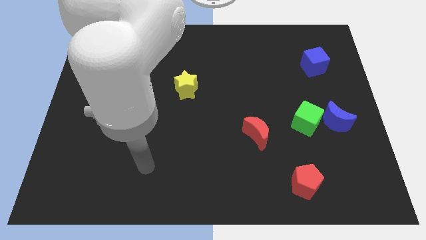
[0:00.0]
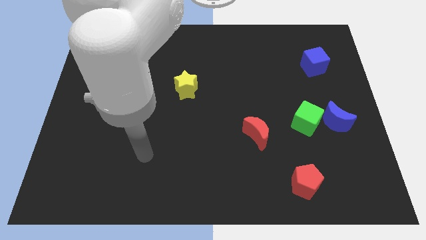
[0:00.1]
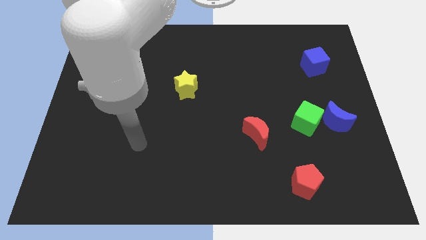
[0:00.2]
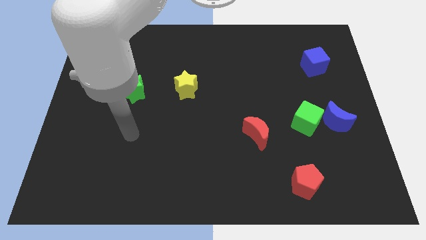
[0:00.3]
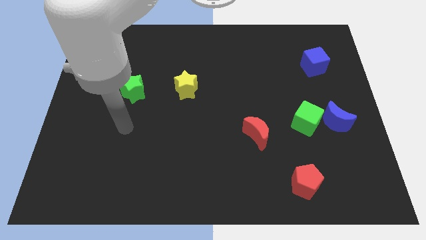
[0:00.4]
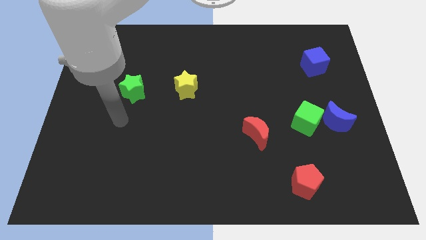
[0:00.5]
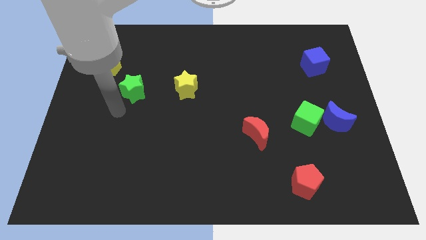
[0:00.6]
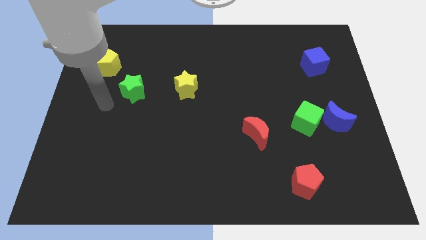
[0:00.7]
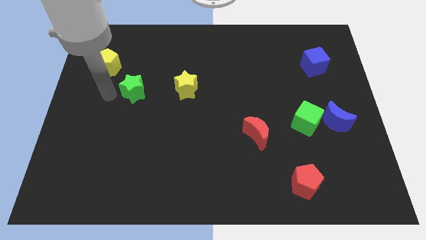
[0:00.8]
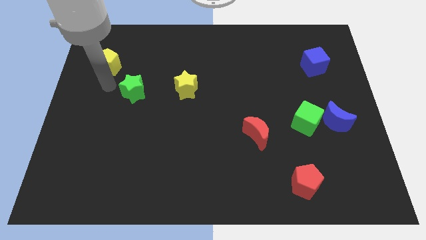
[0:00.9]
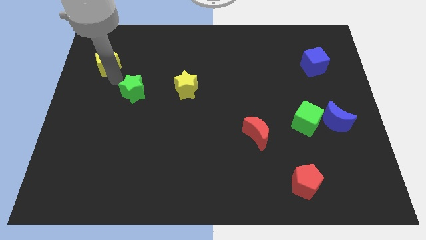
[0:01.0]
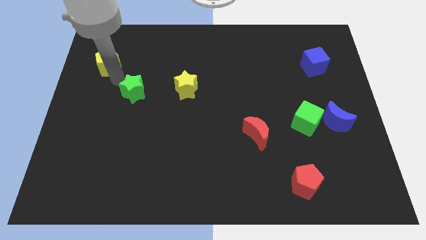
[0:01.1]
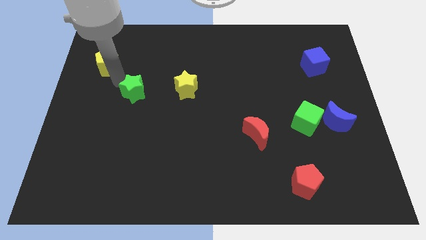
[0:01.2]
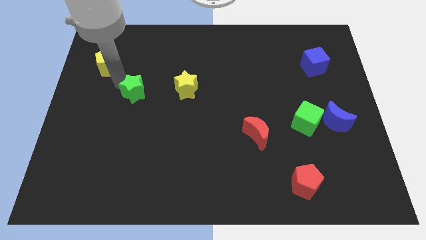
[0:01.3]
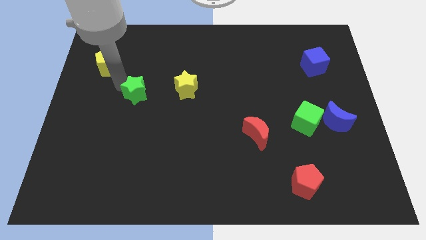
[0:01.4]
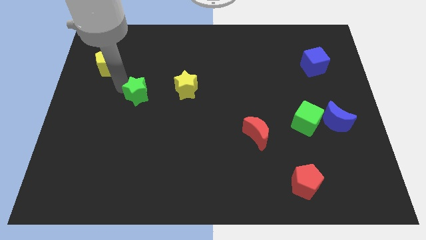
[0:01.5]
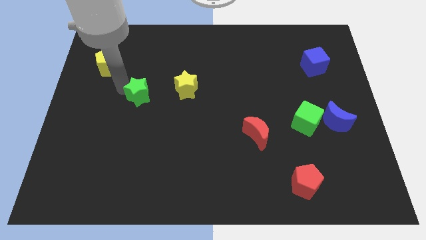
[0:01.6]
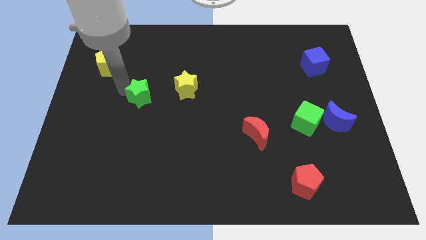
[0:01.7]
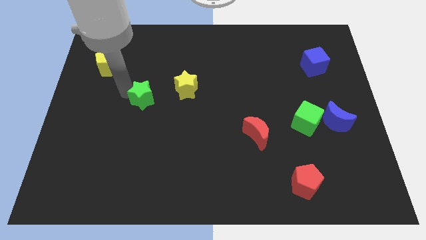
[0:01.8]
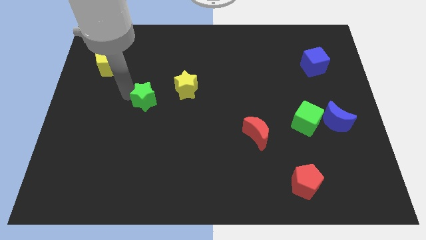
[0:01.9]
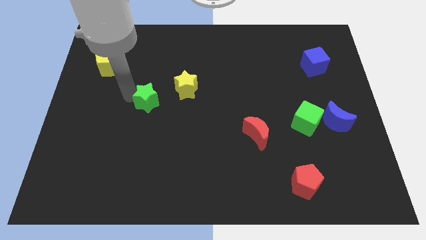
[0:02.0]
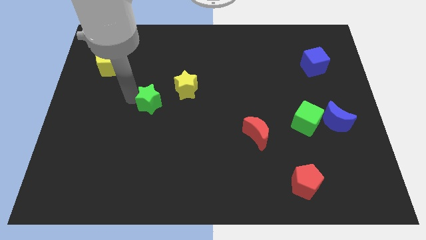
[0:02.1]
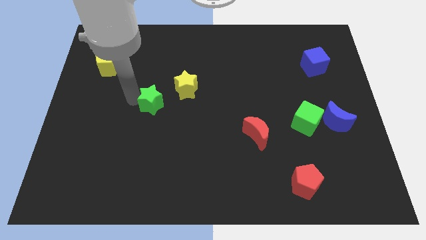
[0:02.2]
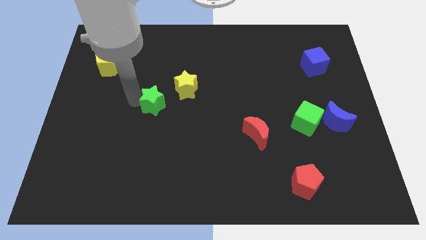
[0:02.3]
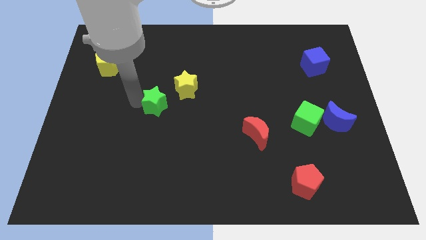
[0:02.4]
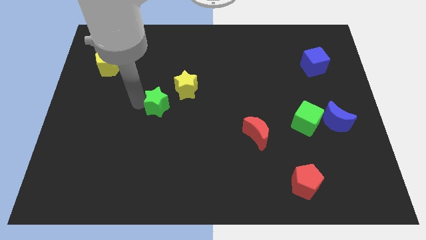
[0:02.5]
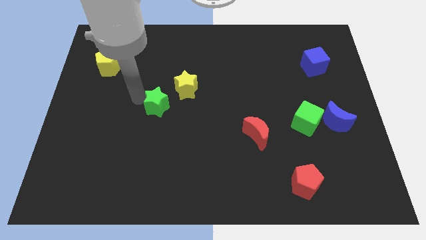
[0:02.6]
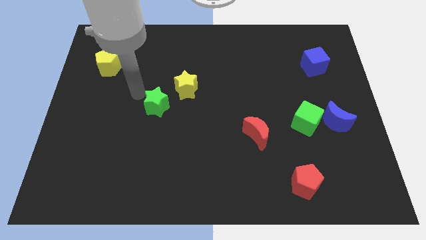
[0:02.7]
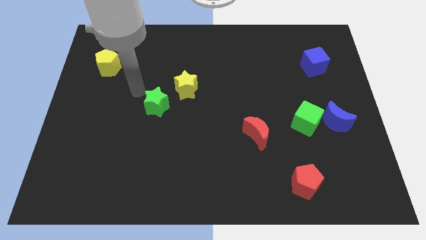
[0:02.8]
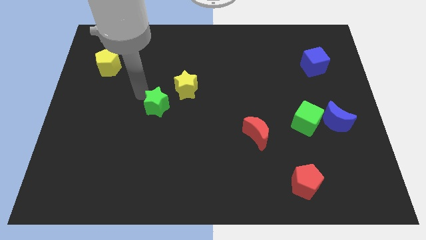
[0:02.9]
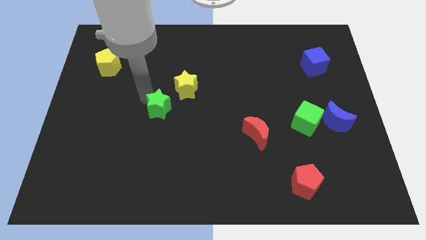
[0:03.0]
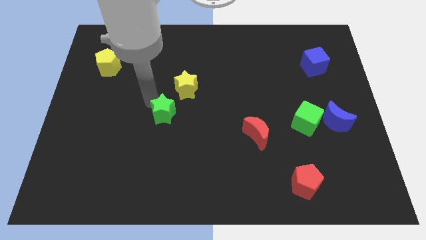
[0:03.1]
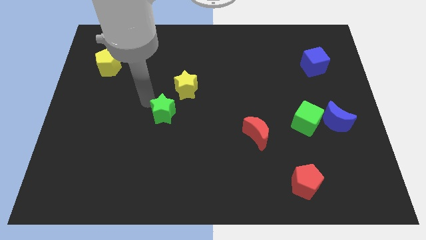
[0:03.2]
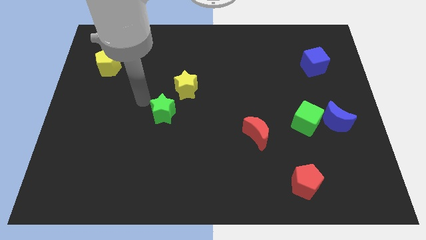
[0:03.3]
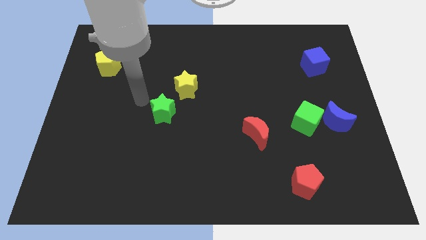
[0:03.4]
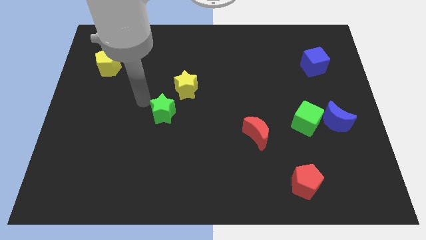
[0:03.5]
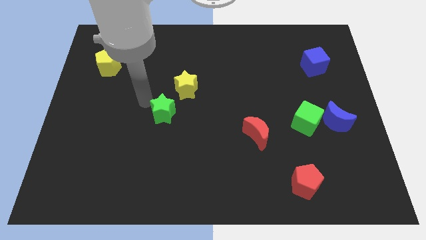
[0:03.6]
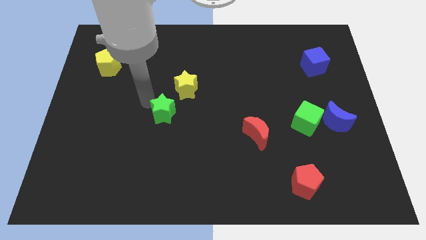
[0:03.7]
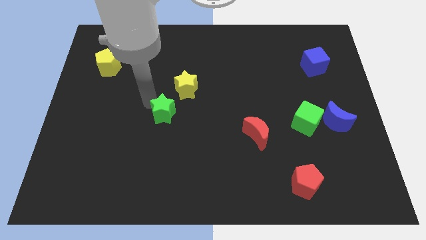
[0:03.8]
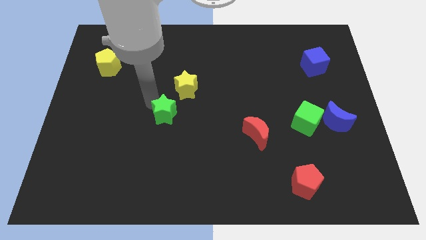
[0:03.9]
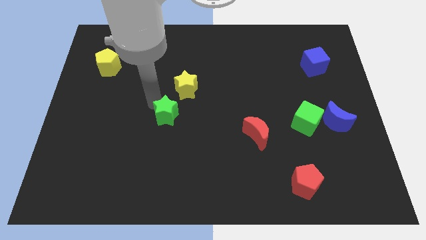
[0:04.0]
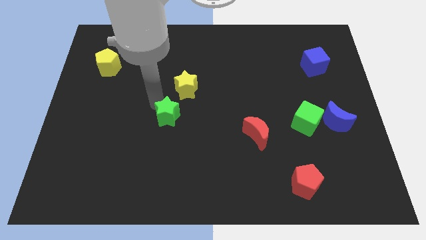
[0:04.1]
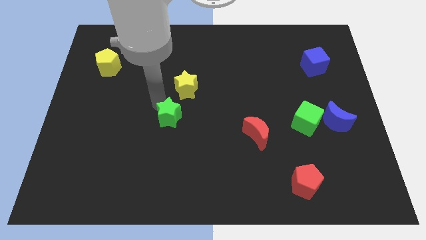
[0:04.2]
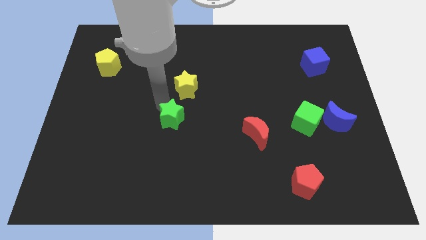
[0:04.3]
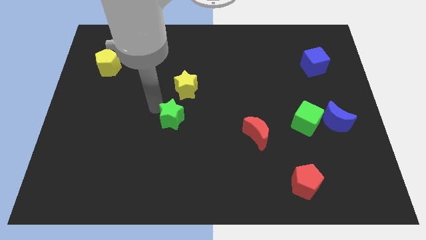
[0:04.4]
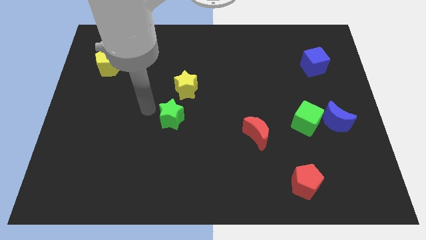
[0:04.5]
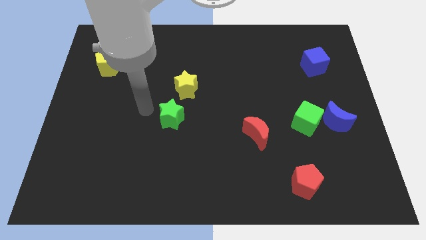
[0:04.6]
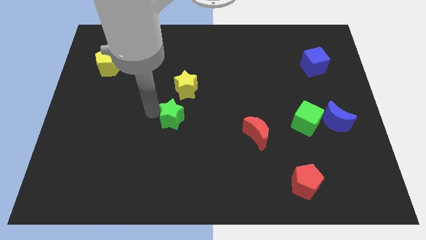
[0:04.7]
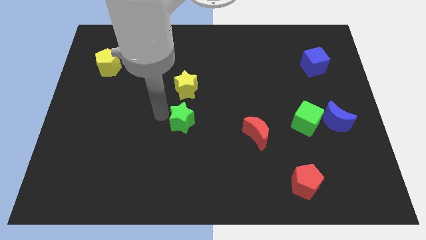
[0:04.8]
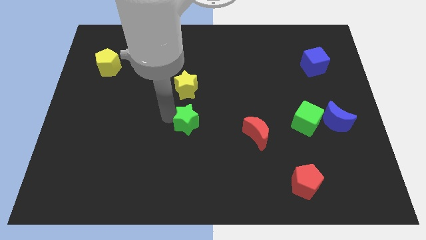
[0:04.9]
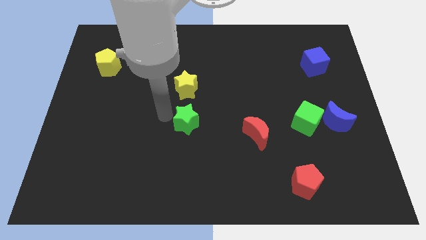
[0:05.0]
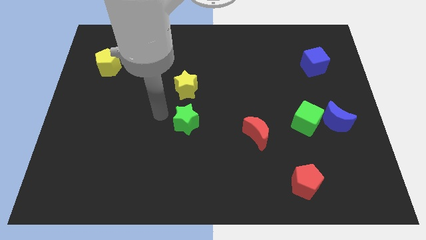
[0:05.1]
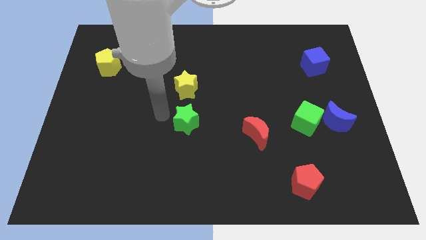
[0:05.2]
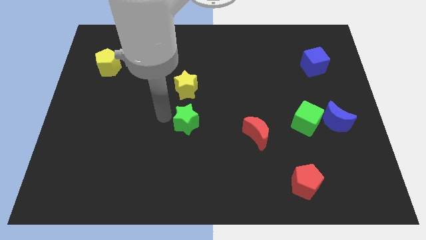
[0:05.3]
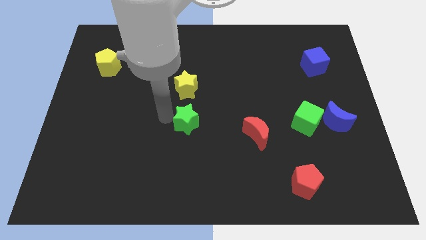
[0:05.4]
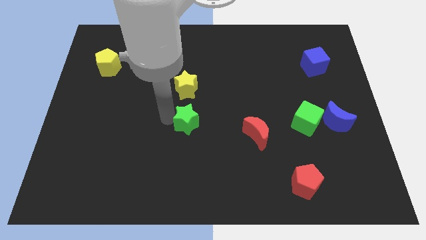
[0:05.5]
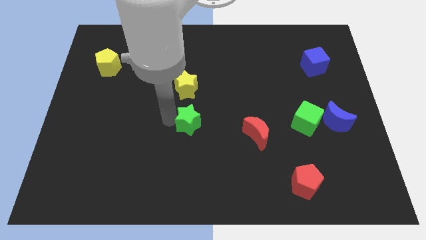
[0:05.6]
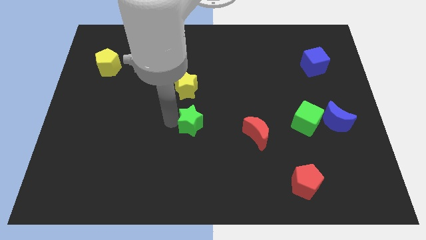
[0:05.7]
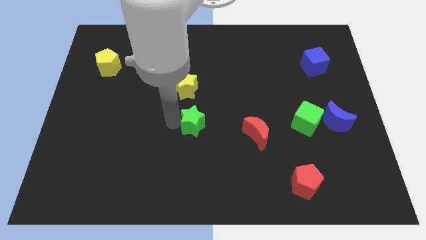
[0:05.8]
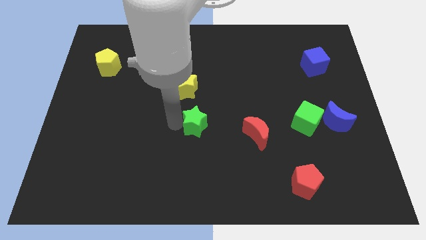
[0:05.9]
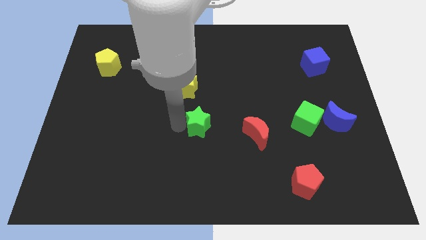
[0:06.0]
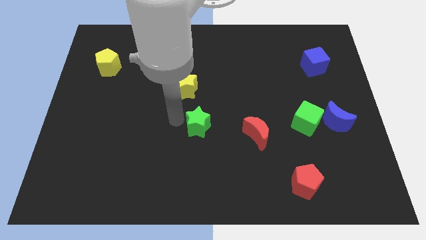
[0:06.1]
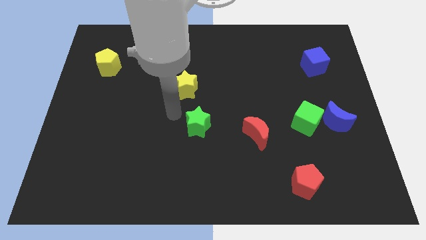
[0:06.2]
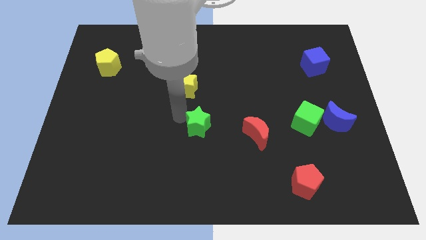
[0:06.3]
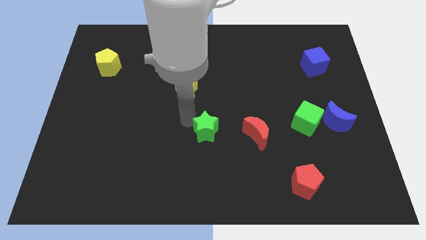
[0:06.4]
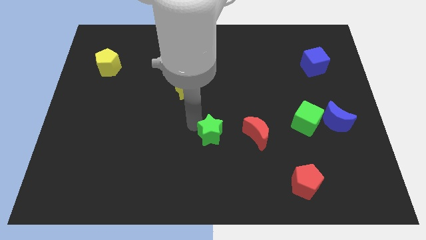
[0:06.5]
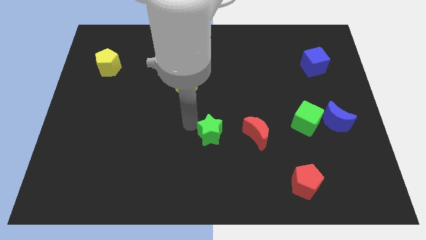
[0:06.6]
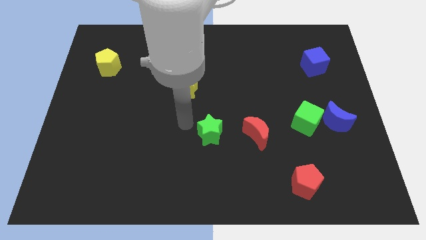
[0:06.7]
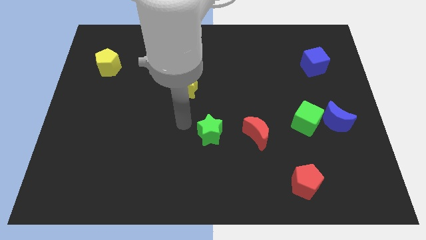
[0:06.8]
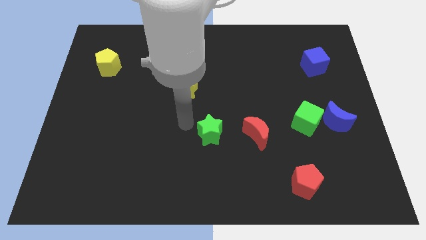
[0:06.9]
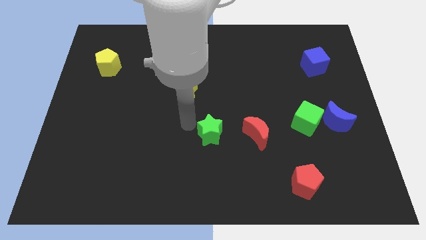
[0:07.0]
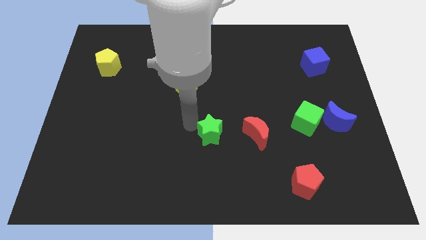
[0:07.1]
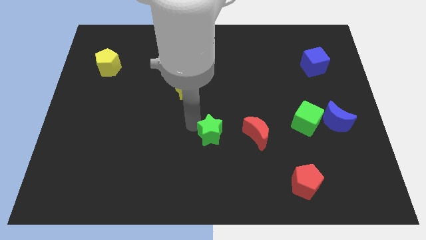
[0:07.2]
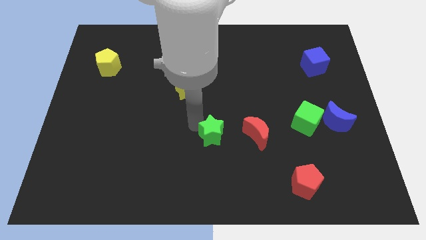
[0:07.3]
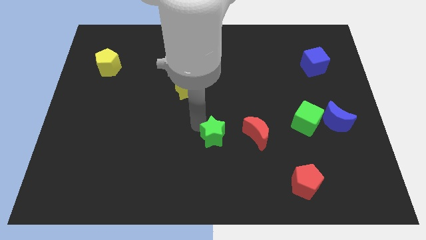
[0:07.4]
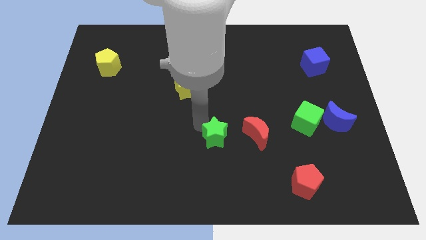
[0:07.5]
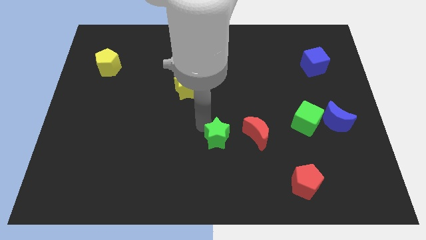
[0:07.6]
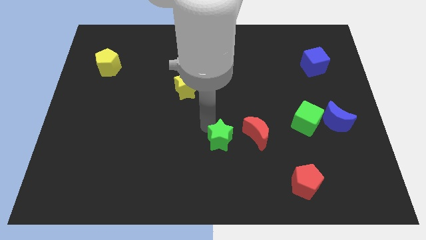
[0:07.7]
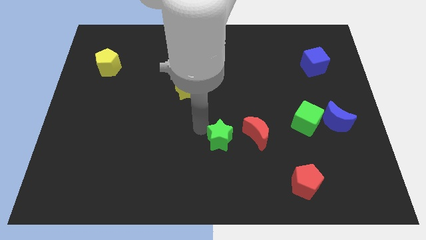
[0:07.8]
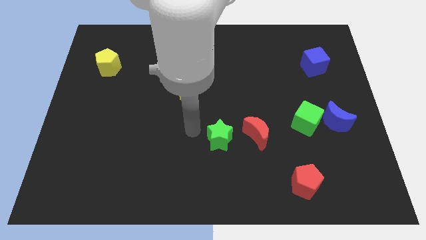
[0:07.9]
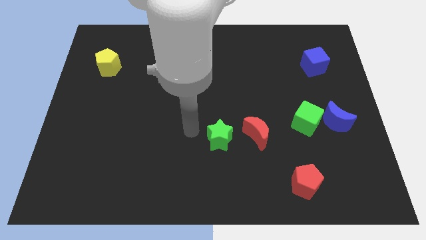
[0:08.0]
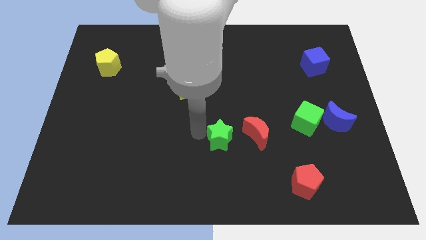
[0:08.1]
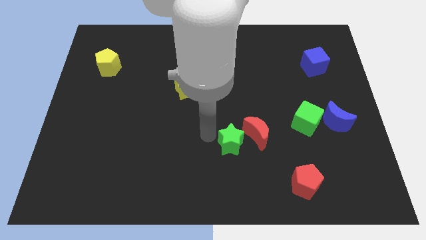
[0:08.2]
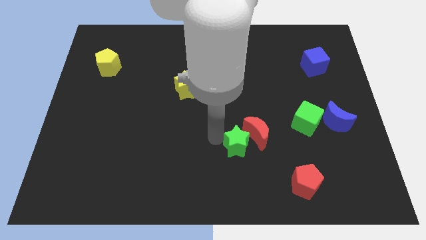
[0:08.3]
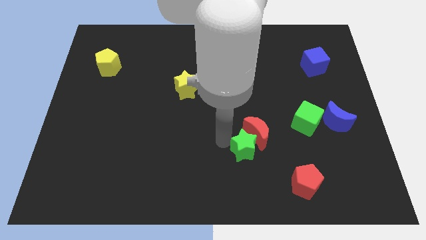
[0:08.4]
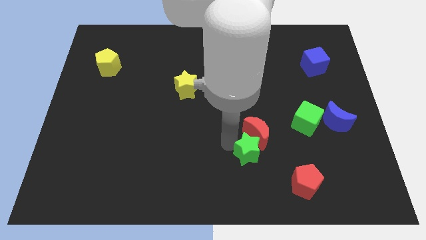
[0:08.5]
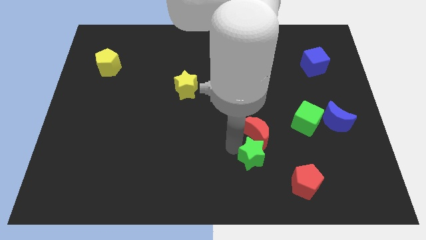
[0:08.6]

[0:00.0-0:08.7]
slide the green star diagonally up and to the left of the red pentagon
